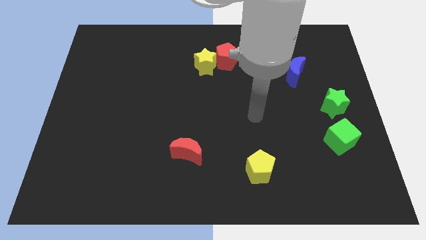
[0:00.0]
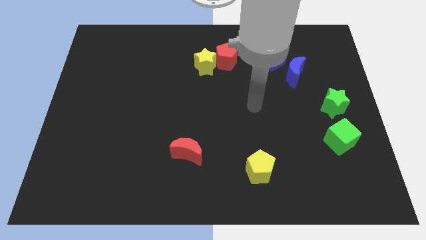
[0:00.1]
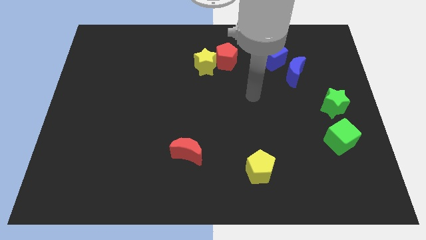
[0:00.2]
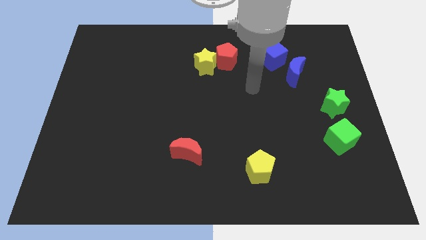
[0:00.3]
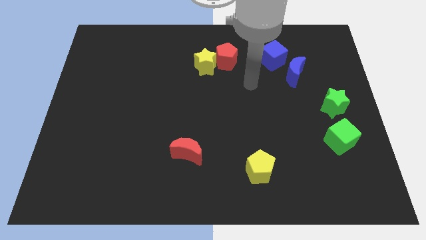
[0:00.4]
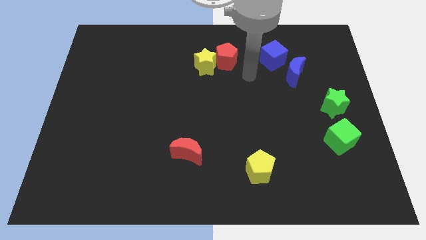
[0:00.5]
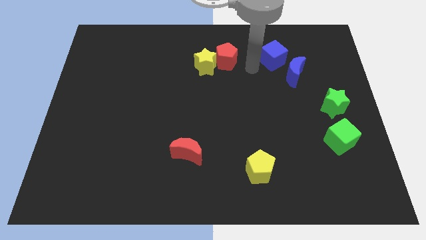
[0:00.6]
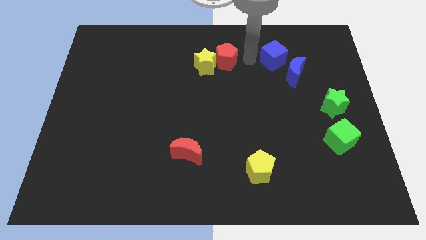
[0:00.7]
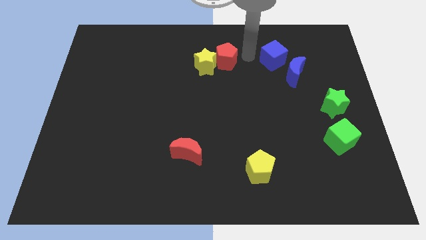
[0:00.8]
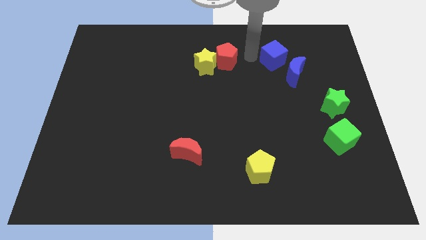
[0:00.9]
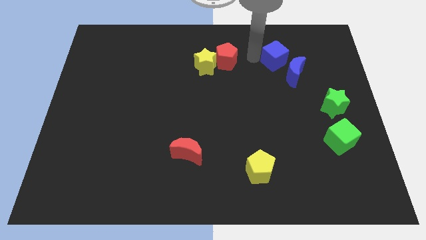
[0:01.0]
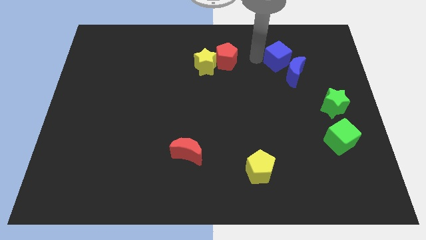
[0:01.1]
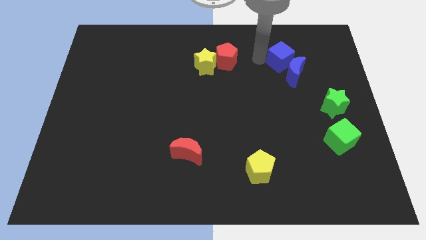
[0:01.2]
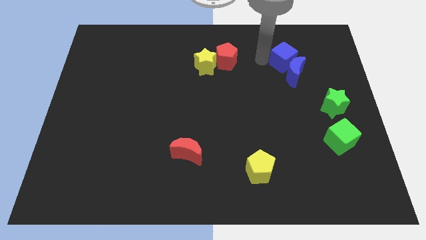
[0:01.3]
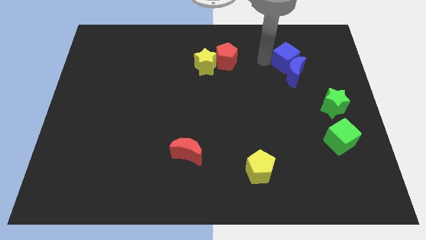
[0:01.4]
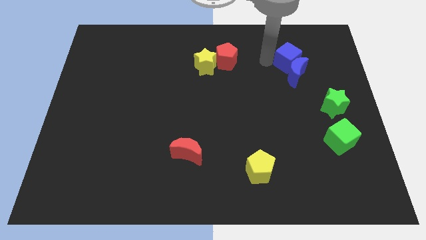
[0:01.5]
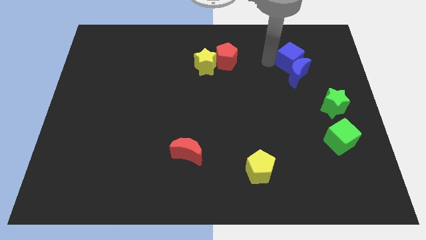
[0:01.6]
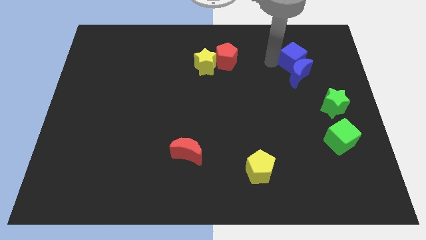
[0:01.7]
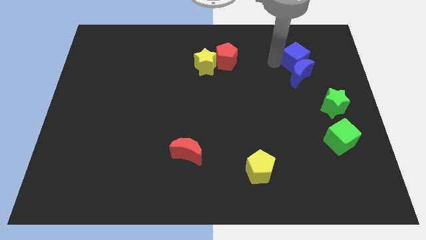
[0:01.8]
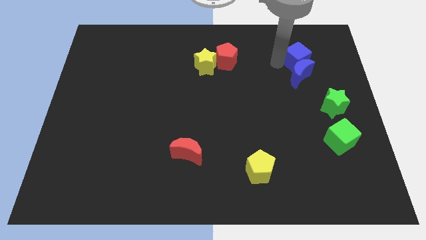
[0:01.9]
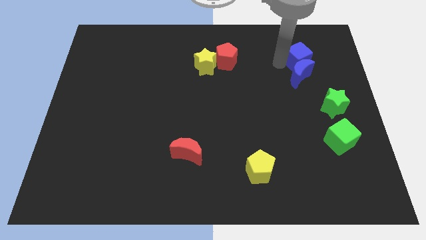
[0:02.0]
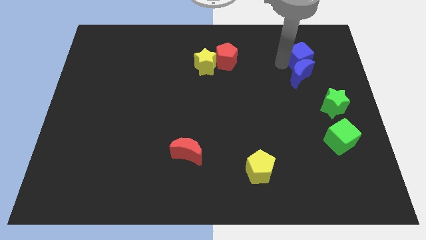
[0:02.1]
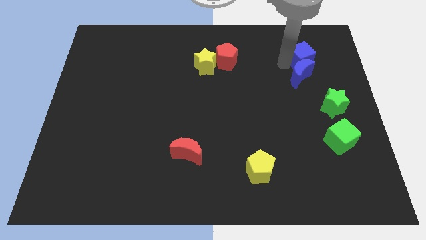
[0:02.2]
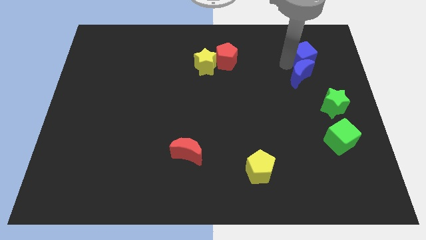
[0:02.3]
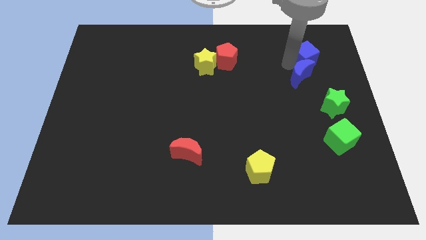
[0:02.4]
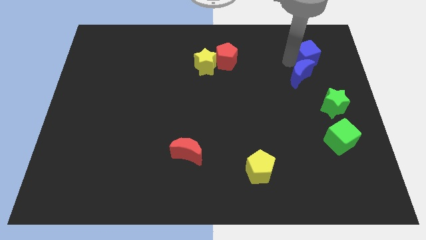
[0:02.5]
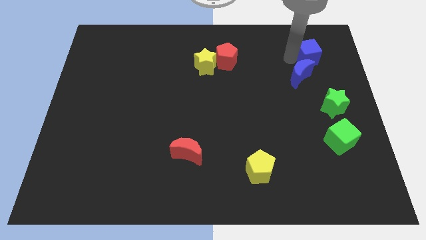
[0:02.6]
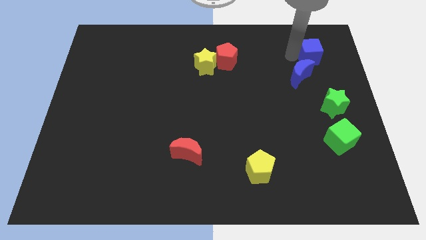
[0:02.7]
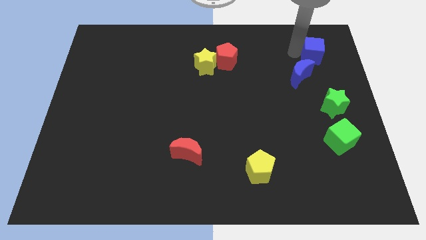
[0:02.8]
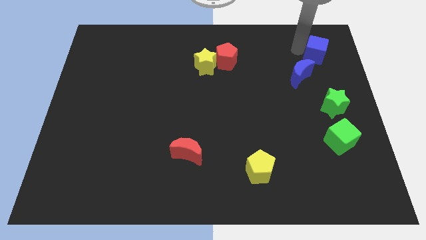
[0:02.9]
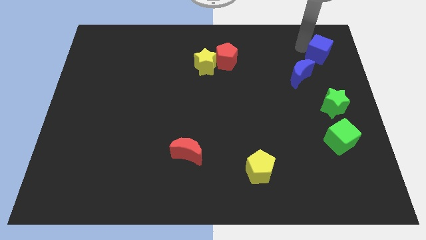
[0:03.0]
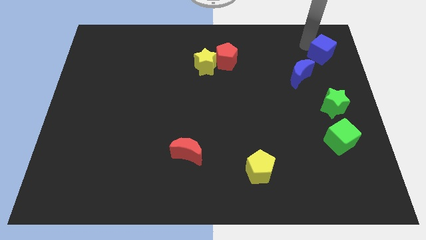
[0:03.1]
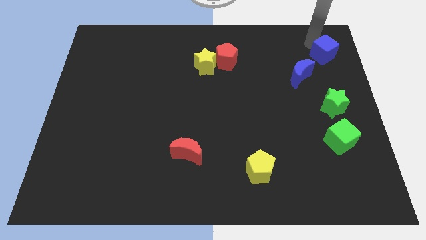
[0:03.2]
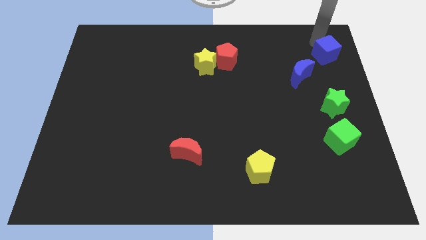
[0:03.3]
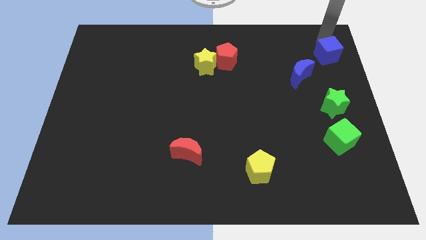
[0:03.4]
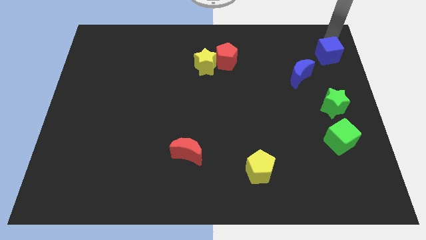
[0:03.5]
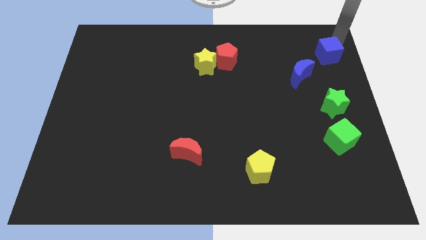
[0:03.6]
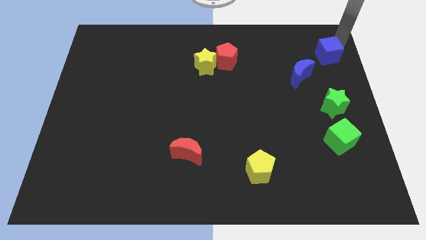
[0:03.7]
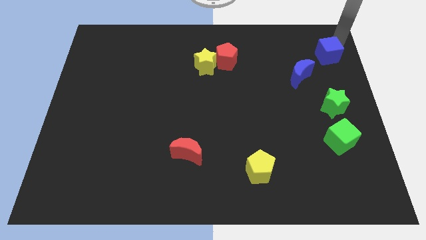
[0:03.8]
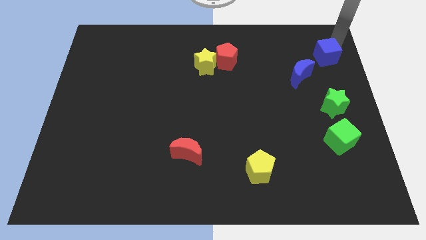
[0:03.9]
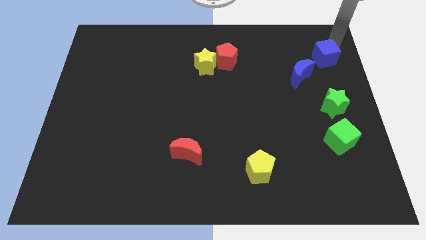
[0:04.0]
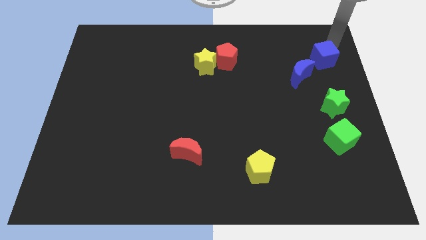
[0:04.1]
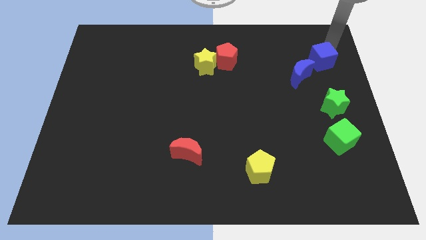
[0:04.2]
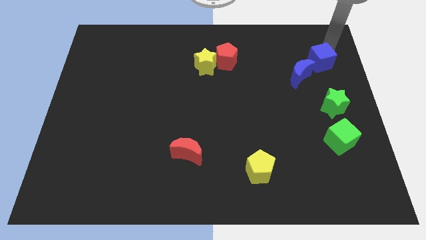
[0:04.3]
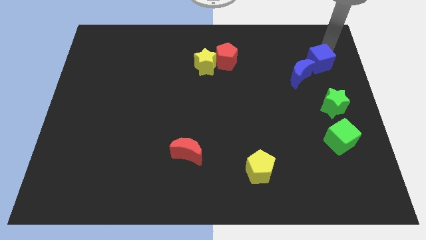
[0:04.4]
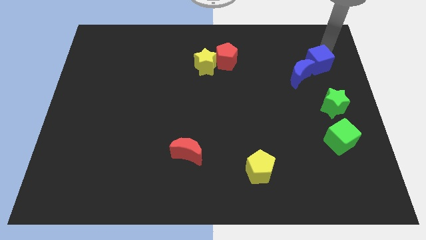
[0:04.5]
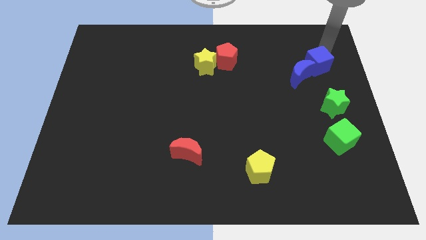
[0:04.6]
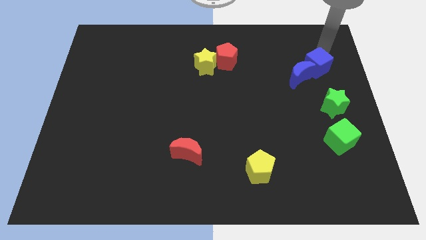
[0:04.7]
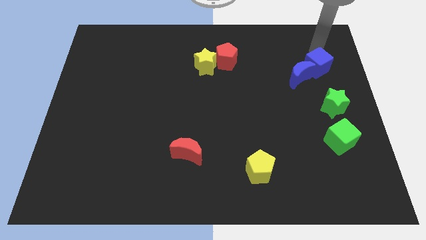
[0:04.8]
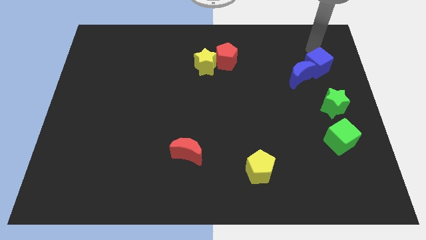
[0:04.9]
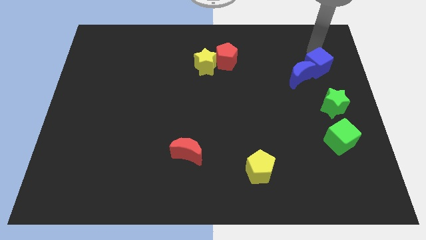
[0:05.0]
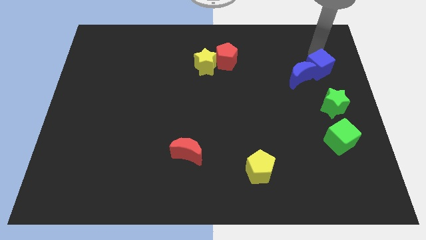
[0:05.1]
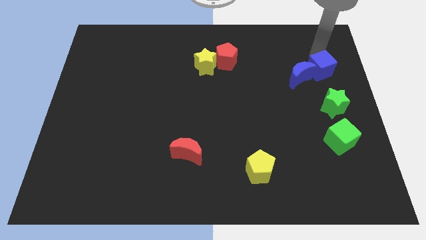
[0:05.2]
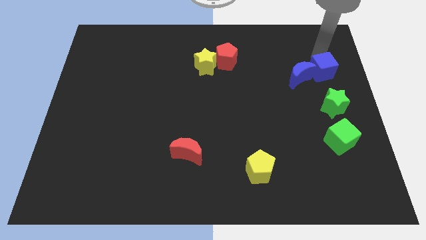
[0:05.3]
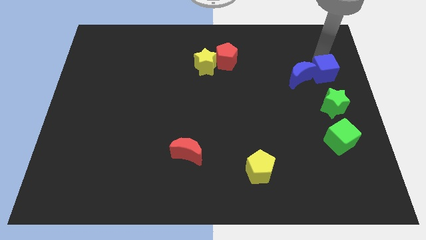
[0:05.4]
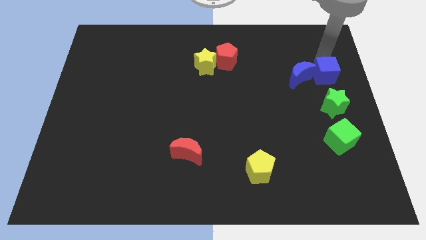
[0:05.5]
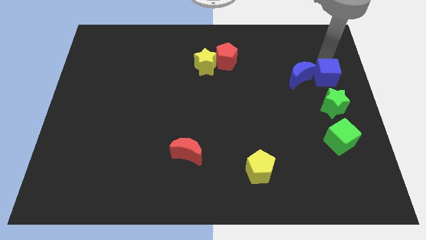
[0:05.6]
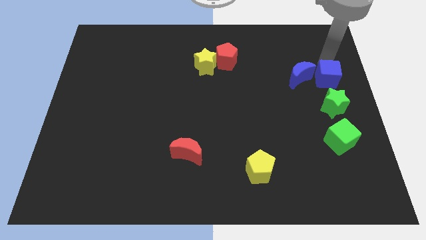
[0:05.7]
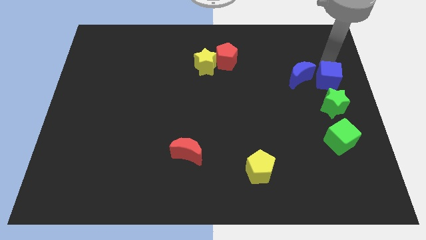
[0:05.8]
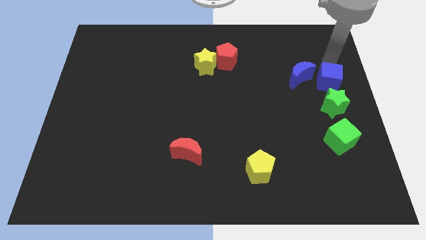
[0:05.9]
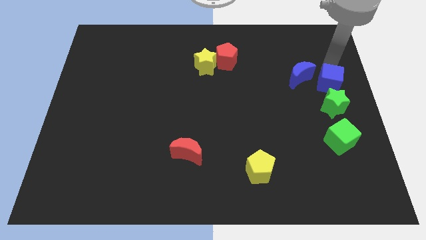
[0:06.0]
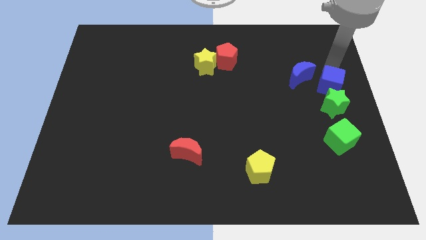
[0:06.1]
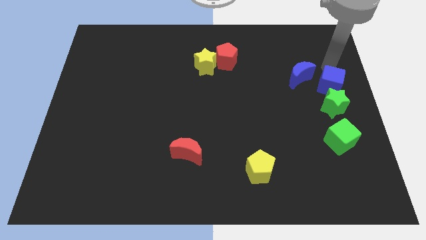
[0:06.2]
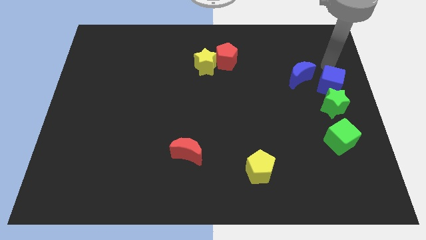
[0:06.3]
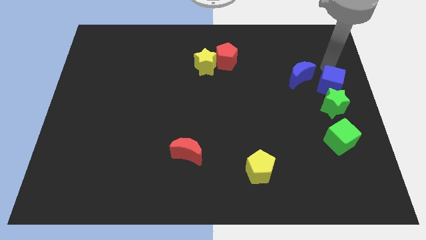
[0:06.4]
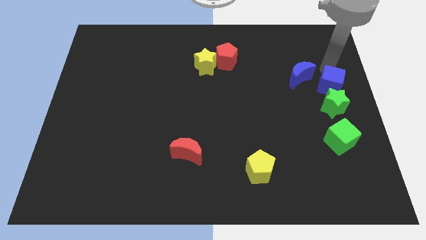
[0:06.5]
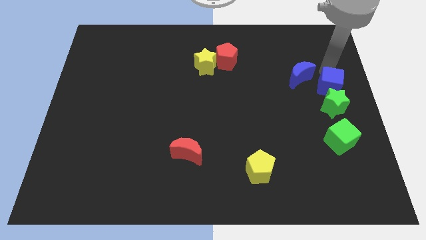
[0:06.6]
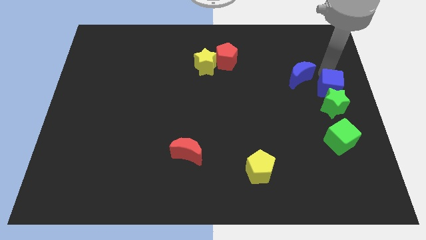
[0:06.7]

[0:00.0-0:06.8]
slide the blue cube towards the green star

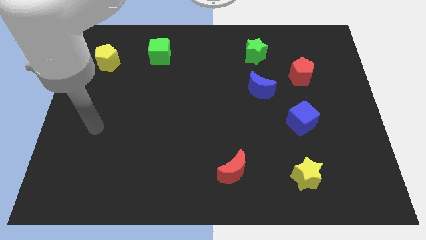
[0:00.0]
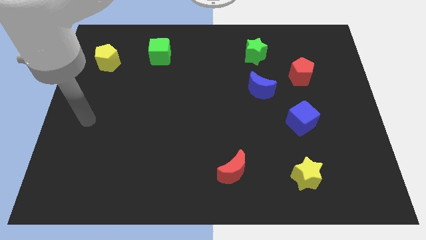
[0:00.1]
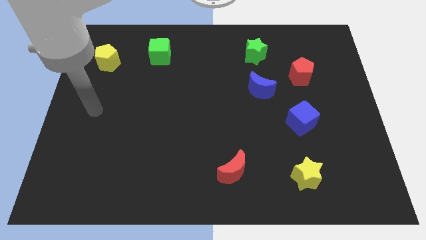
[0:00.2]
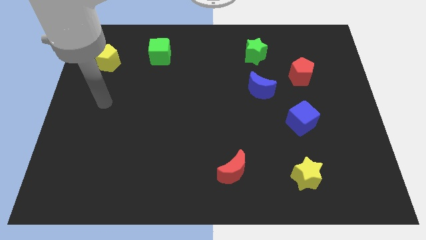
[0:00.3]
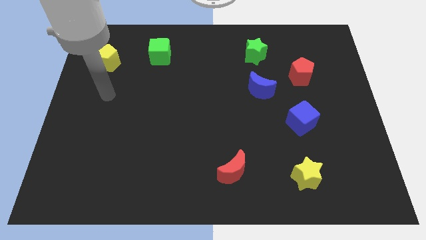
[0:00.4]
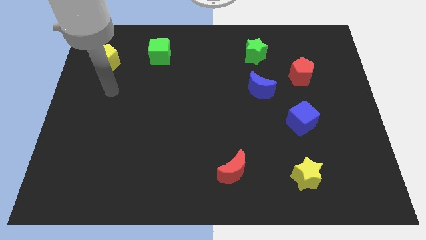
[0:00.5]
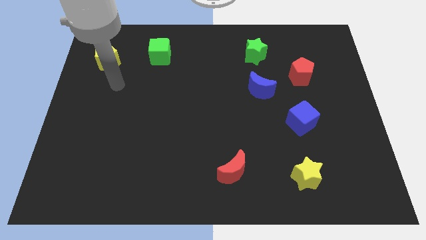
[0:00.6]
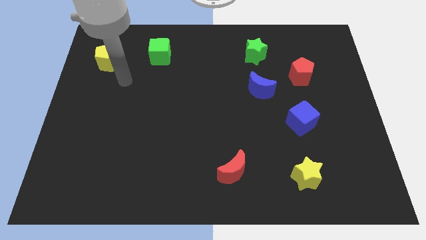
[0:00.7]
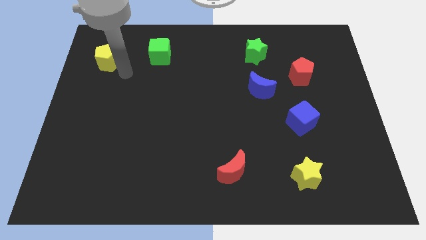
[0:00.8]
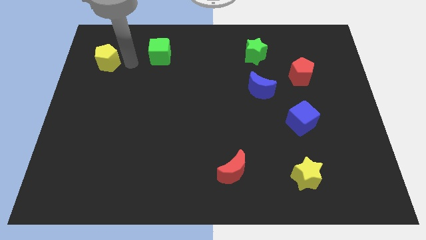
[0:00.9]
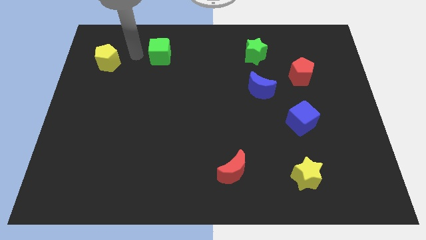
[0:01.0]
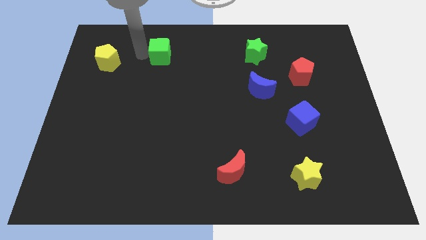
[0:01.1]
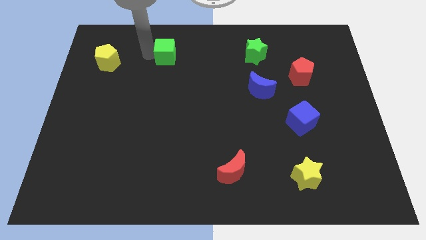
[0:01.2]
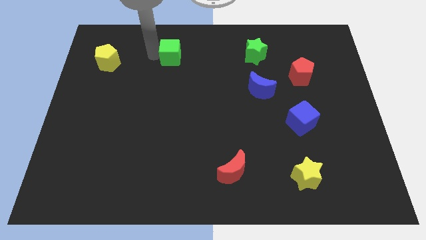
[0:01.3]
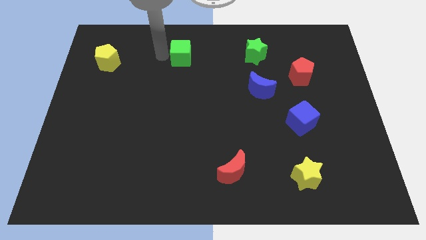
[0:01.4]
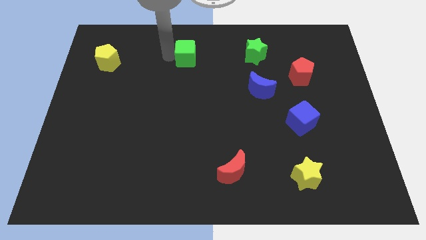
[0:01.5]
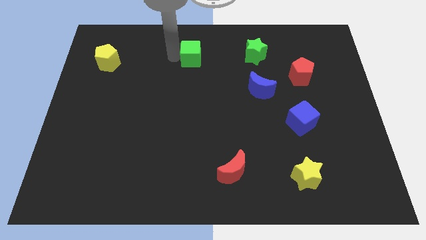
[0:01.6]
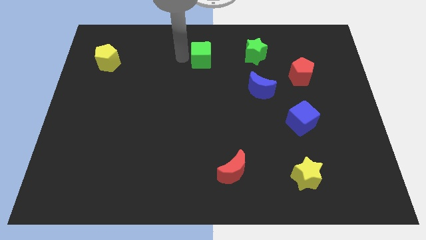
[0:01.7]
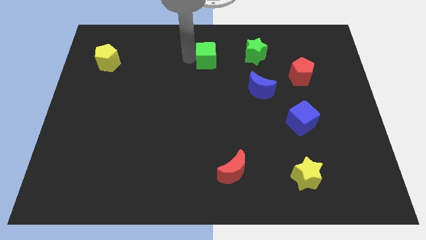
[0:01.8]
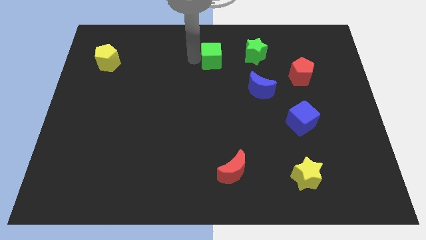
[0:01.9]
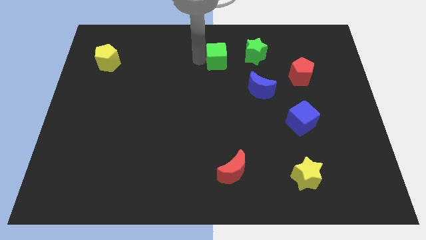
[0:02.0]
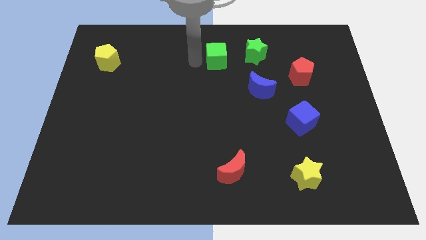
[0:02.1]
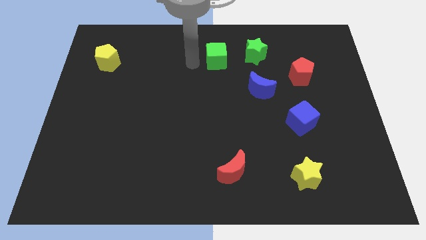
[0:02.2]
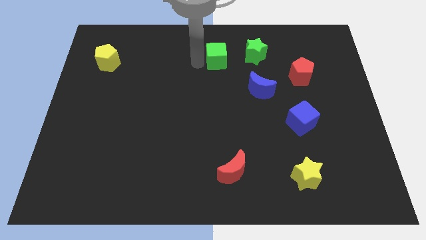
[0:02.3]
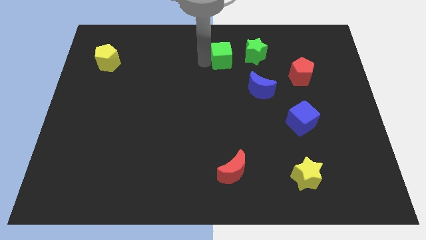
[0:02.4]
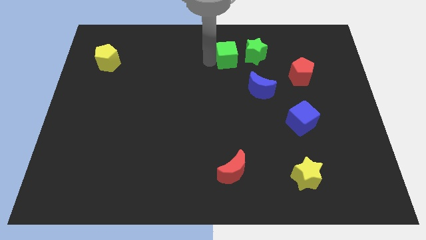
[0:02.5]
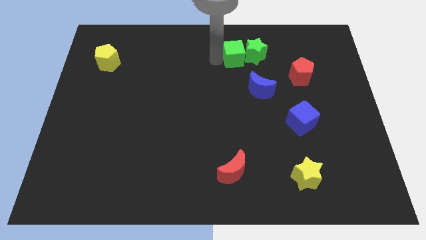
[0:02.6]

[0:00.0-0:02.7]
push the green cube next to the green star
